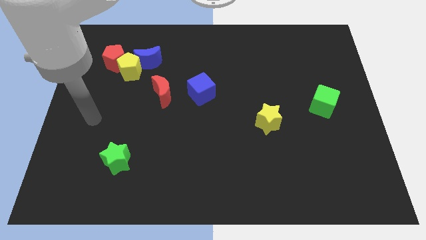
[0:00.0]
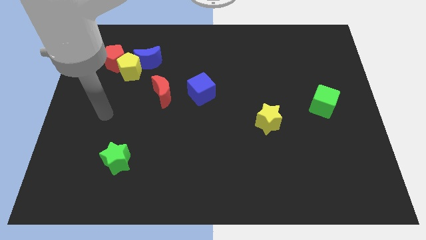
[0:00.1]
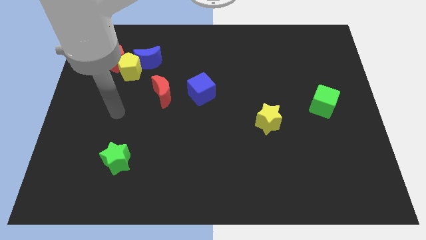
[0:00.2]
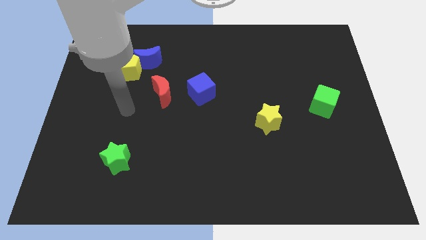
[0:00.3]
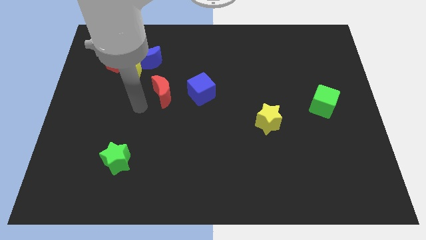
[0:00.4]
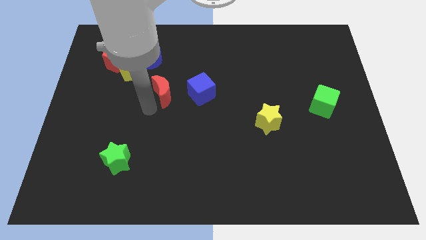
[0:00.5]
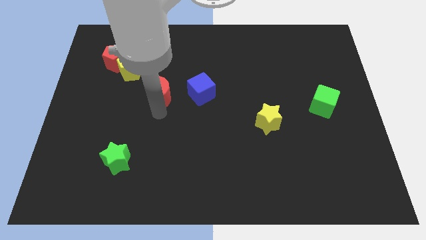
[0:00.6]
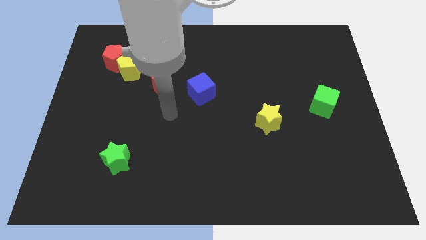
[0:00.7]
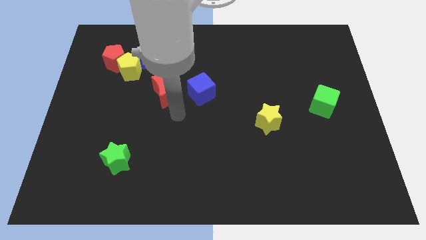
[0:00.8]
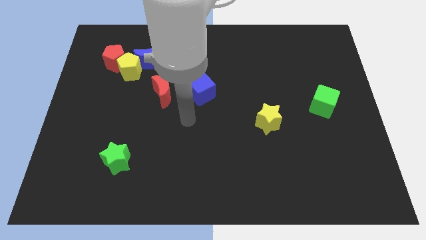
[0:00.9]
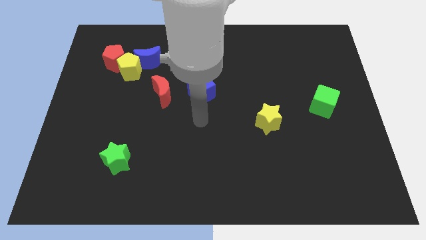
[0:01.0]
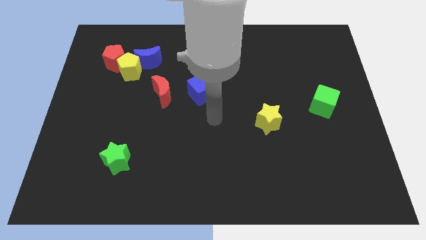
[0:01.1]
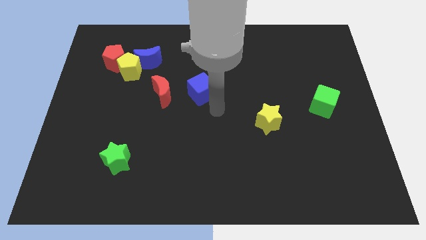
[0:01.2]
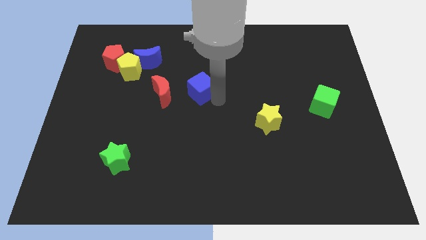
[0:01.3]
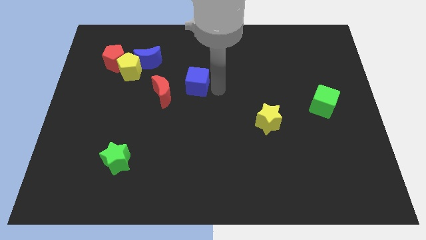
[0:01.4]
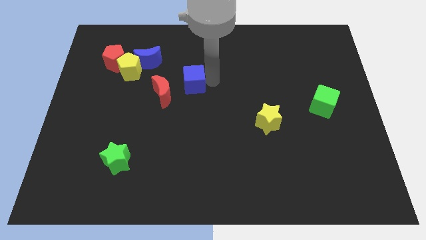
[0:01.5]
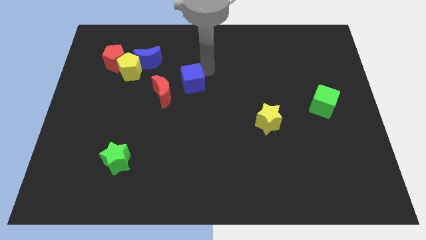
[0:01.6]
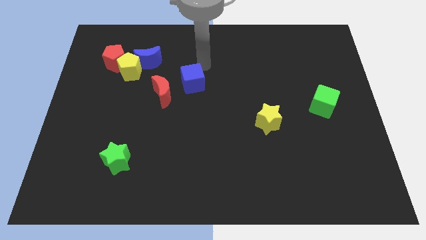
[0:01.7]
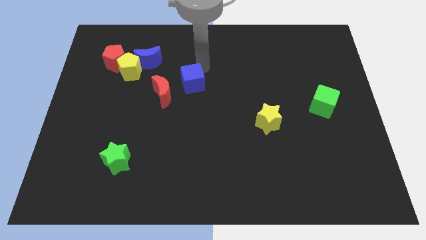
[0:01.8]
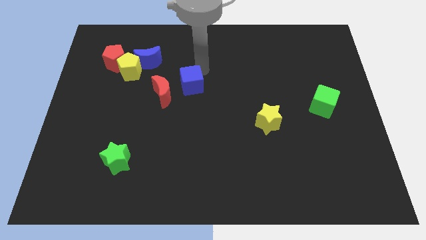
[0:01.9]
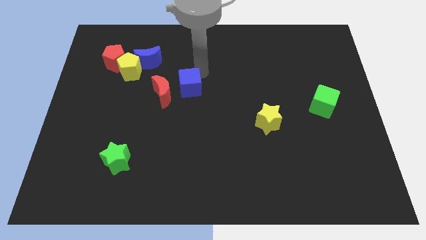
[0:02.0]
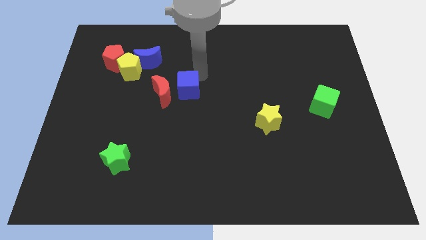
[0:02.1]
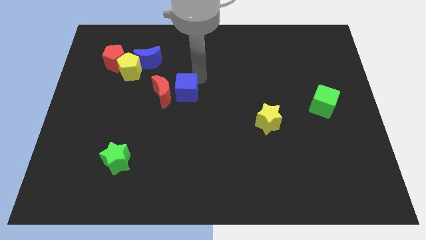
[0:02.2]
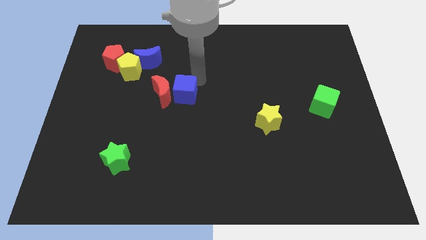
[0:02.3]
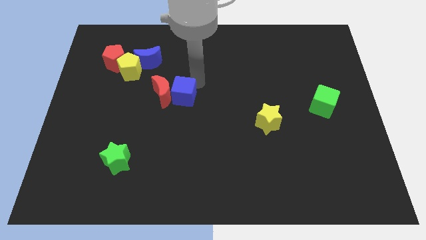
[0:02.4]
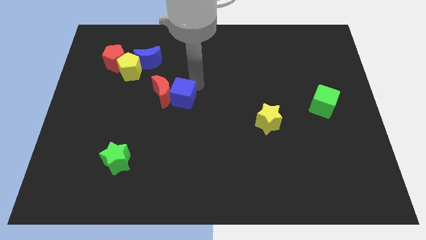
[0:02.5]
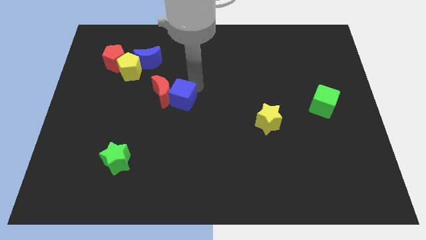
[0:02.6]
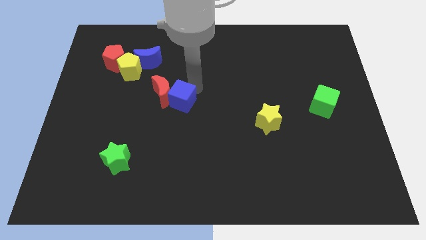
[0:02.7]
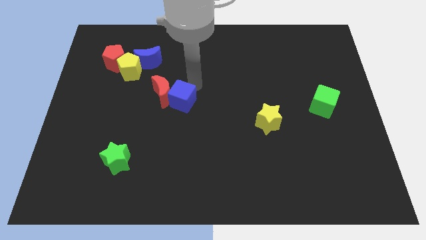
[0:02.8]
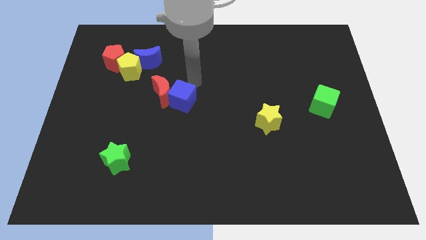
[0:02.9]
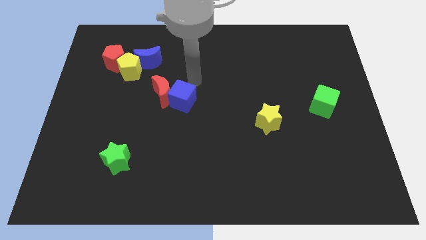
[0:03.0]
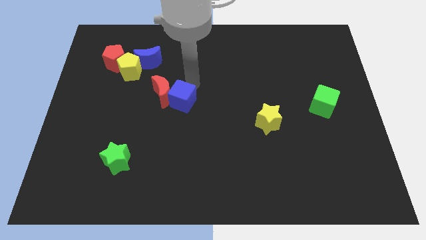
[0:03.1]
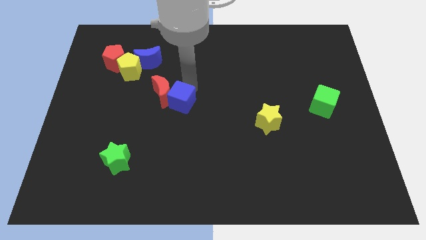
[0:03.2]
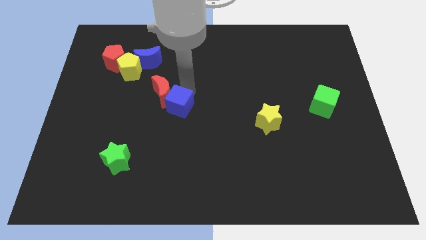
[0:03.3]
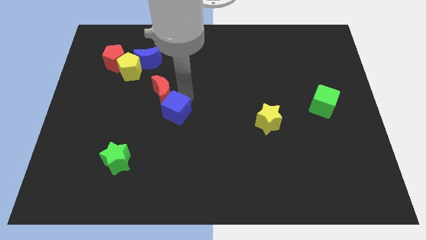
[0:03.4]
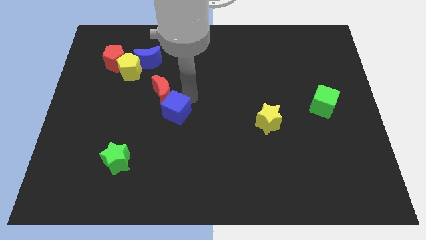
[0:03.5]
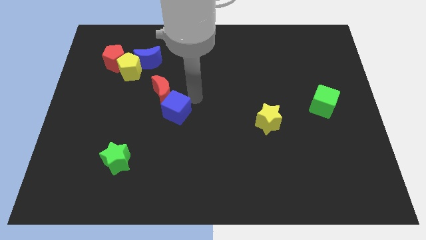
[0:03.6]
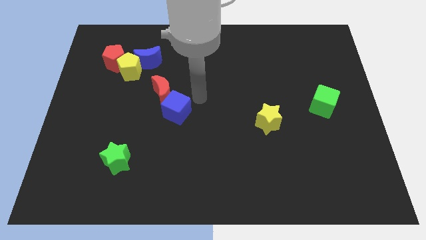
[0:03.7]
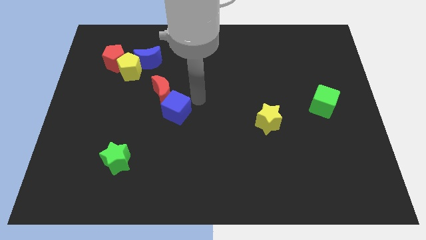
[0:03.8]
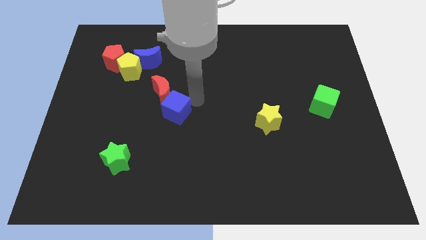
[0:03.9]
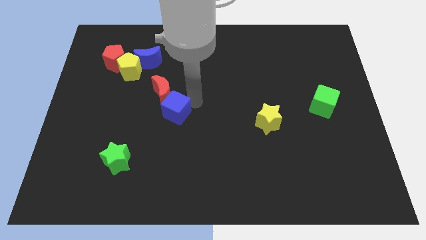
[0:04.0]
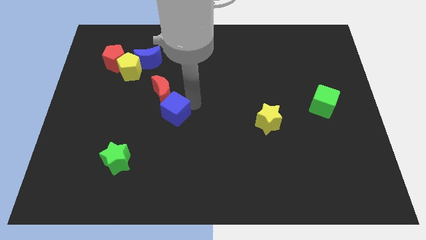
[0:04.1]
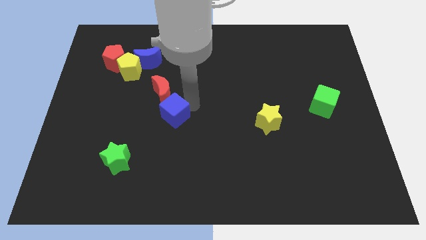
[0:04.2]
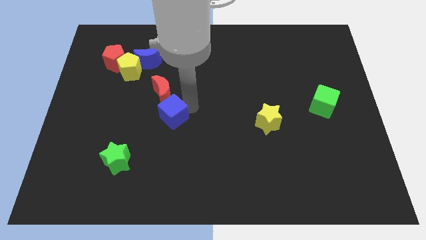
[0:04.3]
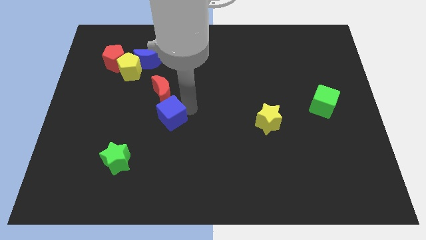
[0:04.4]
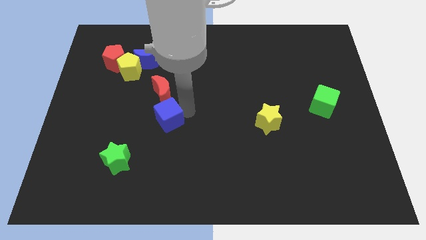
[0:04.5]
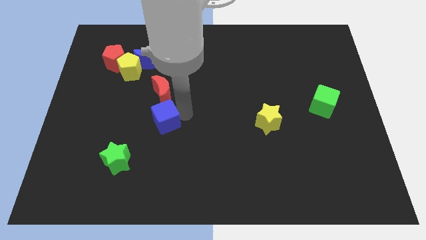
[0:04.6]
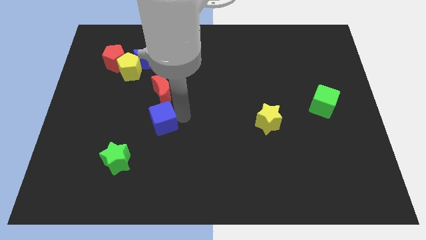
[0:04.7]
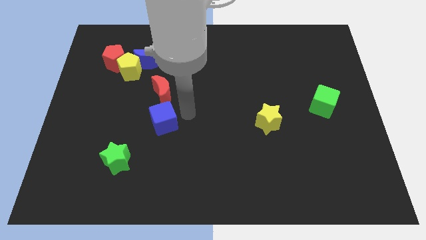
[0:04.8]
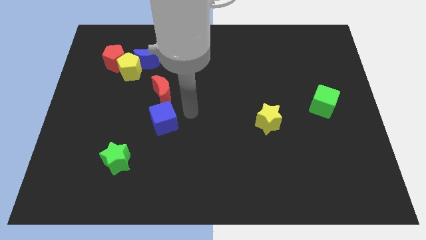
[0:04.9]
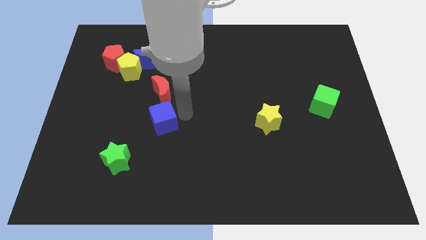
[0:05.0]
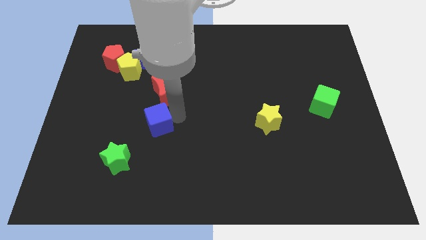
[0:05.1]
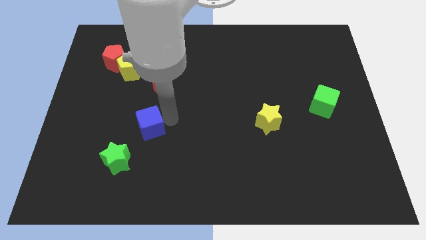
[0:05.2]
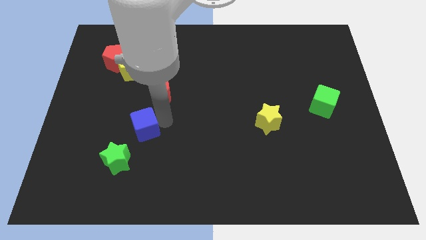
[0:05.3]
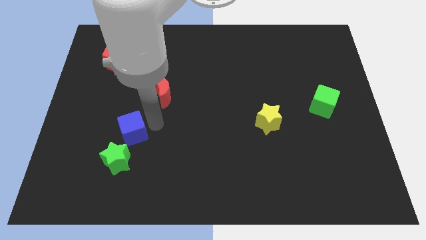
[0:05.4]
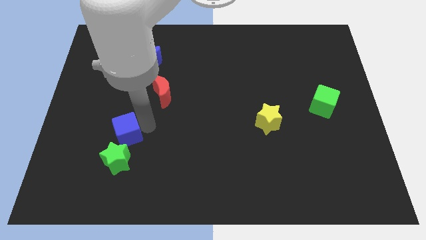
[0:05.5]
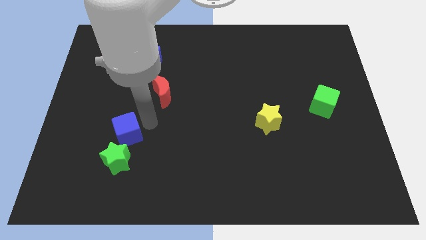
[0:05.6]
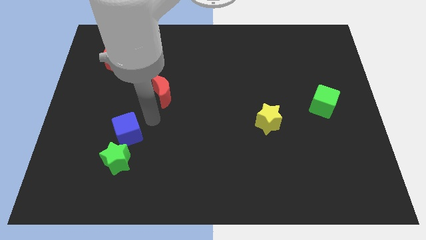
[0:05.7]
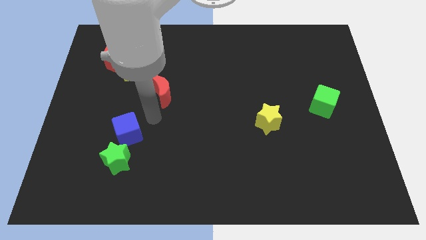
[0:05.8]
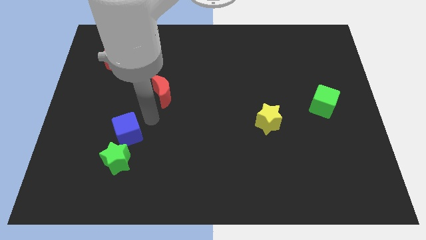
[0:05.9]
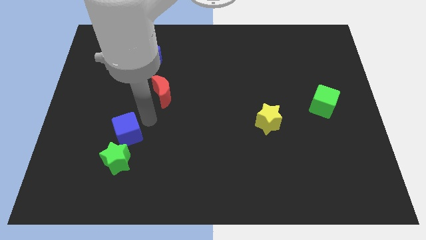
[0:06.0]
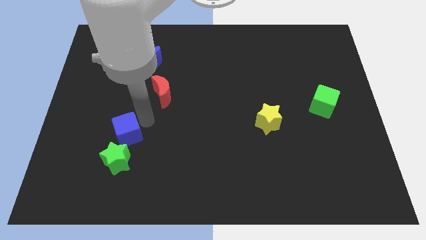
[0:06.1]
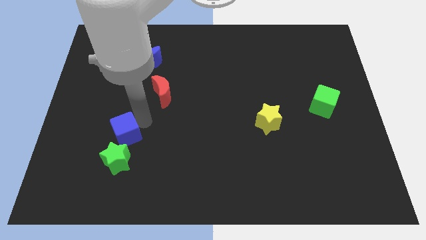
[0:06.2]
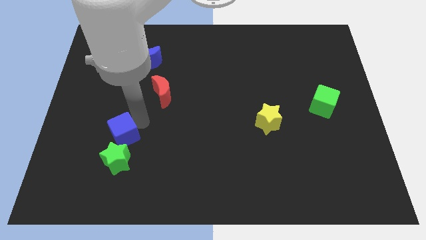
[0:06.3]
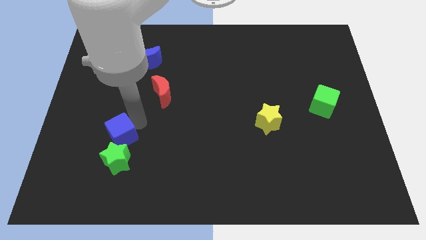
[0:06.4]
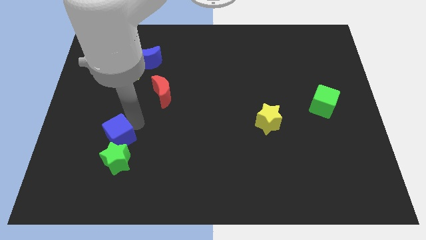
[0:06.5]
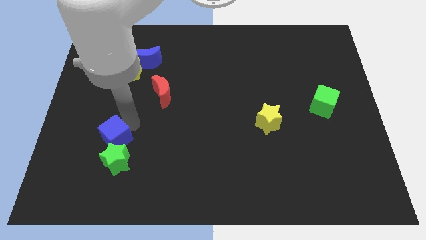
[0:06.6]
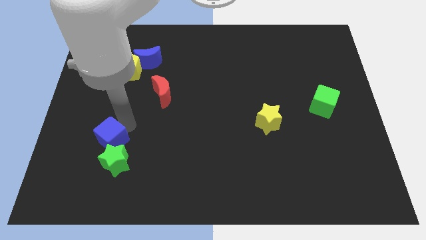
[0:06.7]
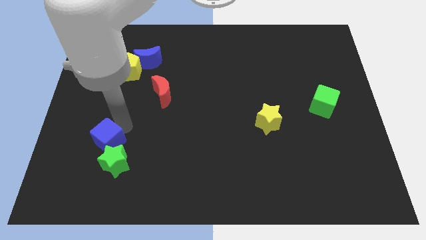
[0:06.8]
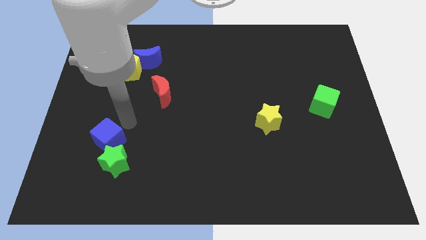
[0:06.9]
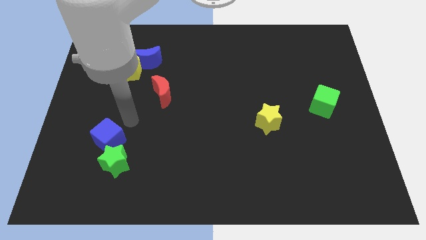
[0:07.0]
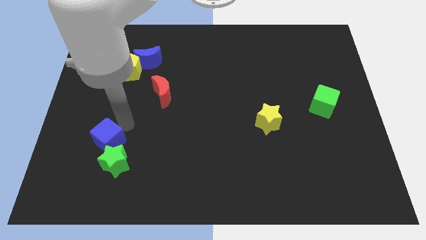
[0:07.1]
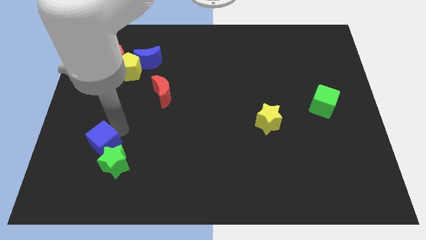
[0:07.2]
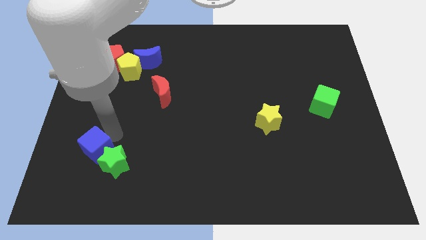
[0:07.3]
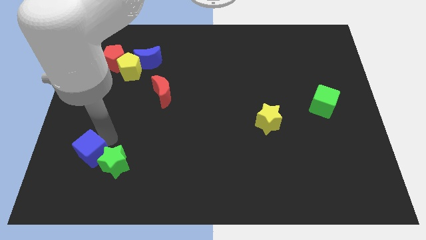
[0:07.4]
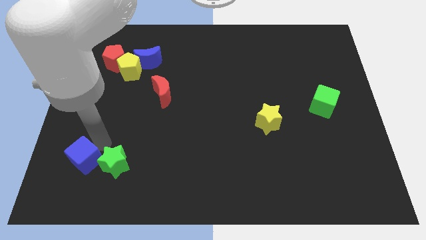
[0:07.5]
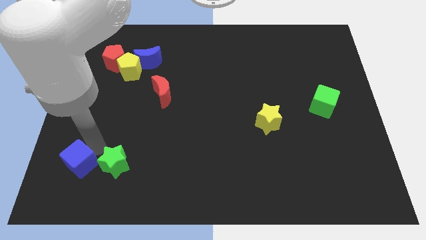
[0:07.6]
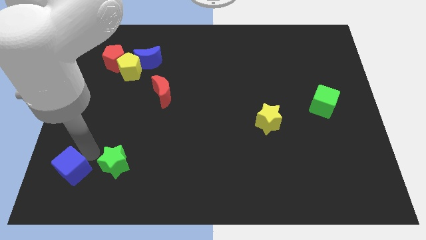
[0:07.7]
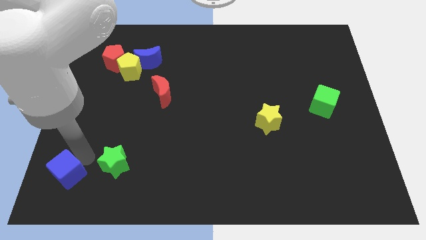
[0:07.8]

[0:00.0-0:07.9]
push the blue cube to the bottom left
